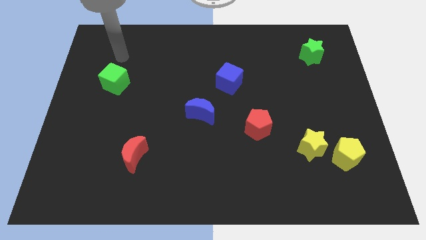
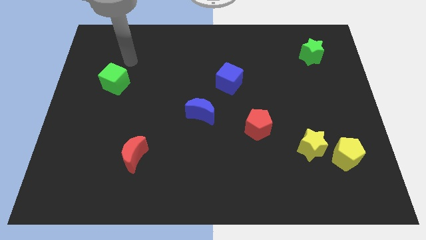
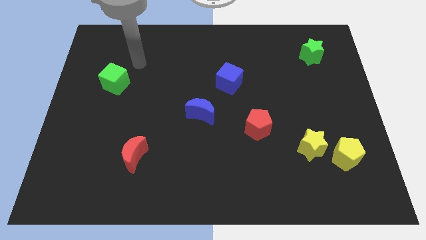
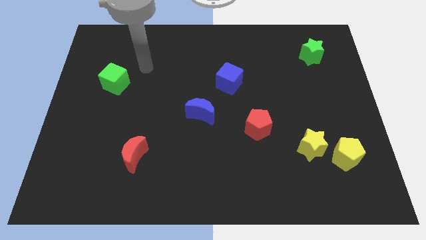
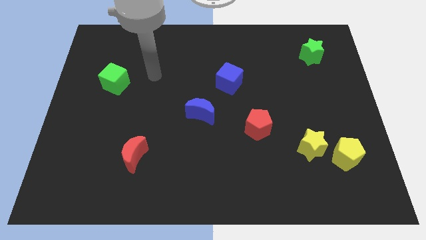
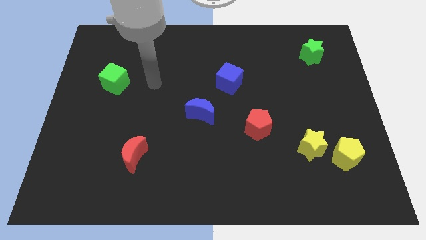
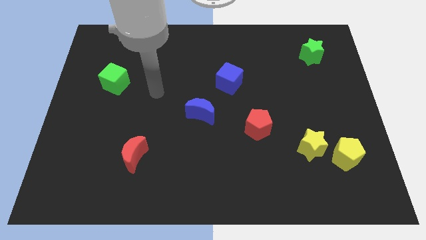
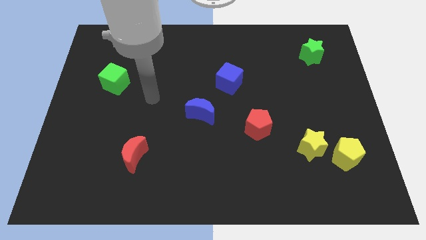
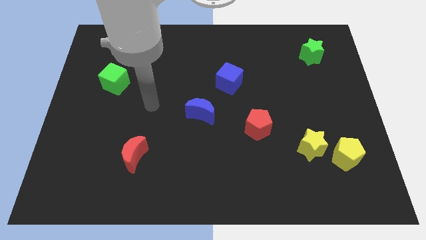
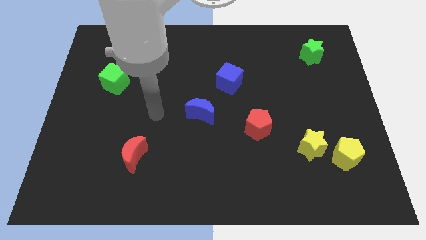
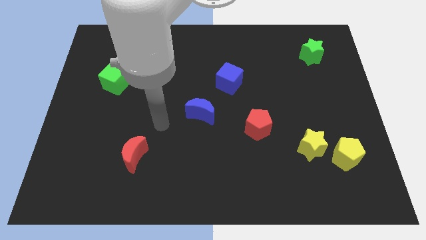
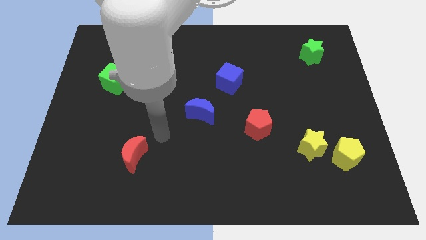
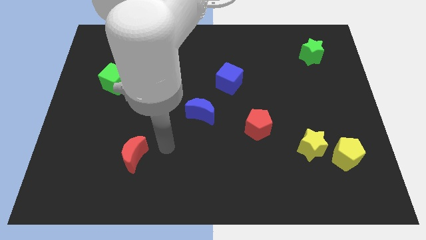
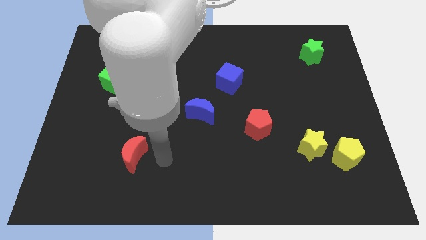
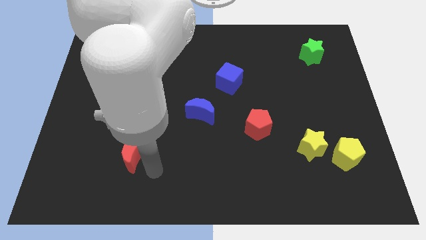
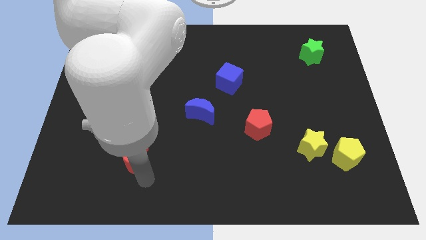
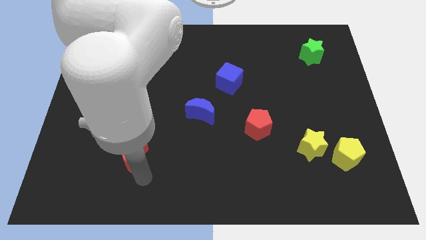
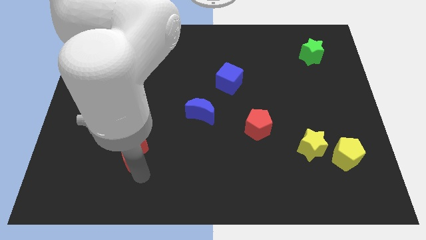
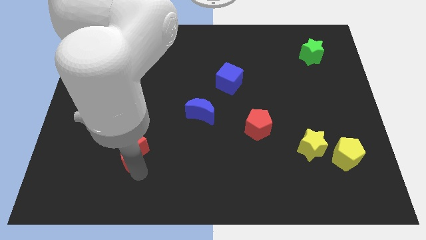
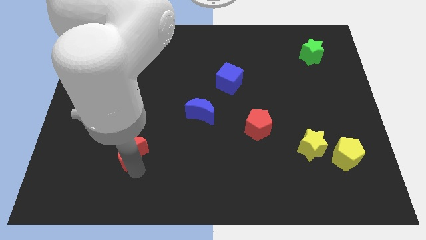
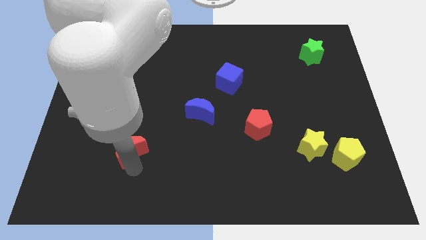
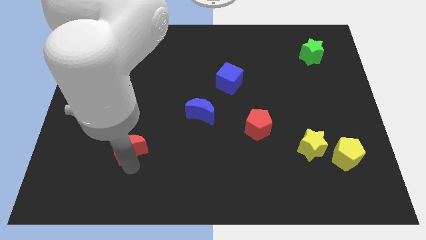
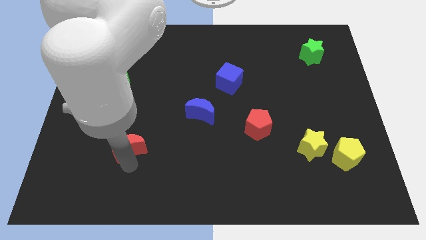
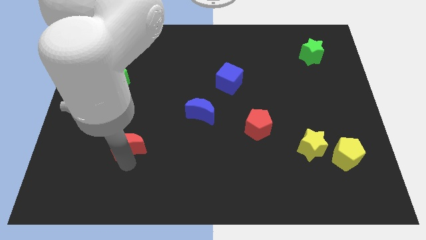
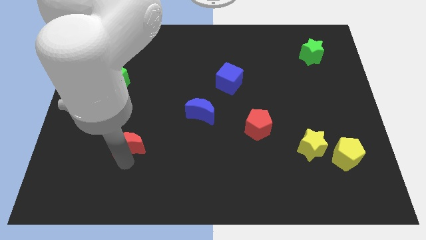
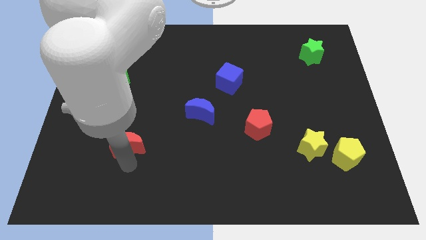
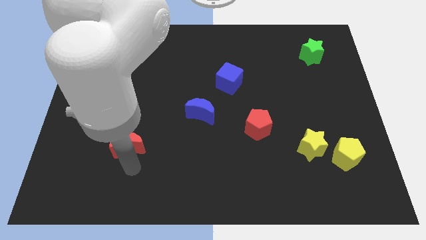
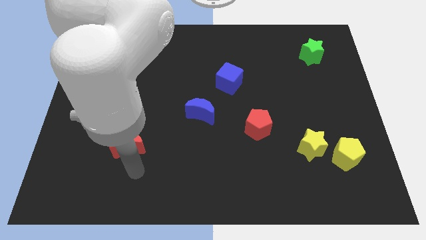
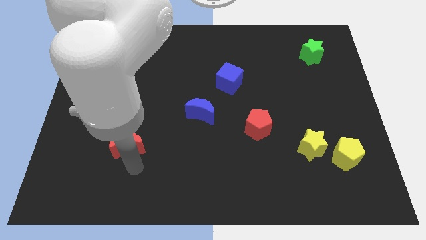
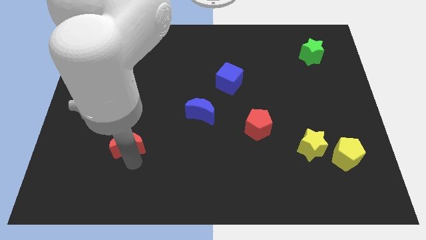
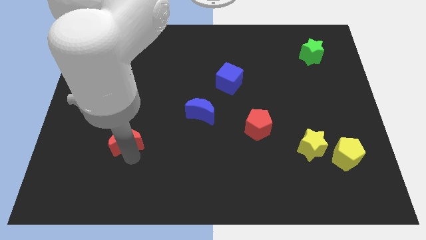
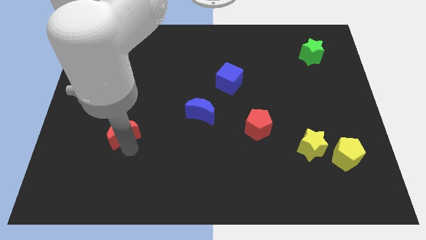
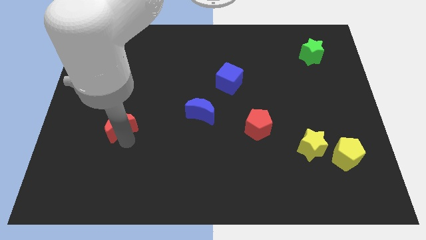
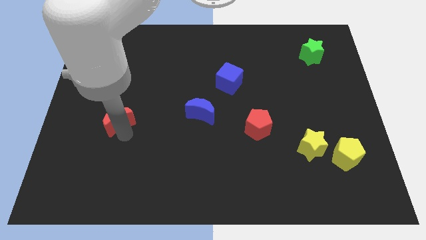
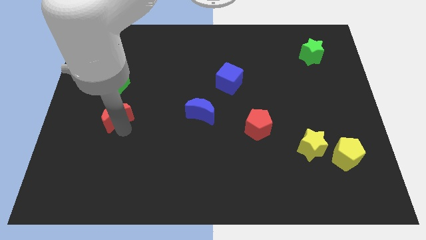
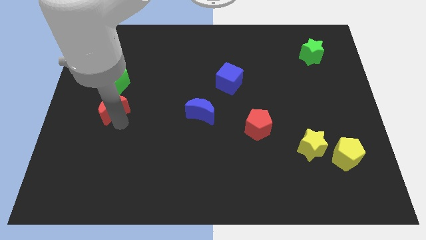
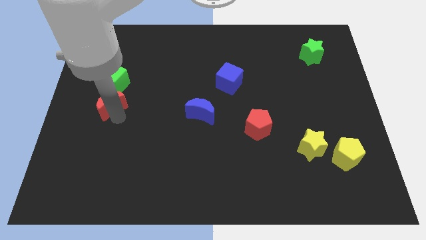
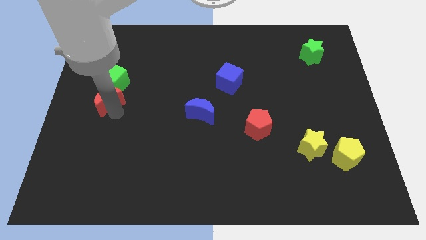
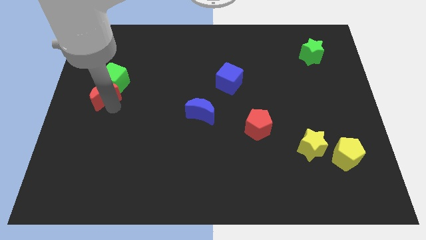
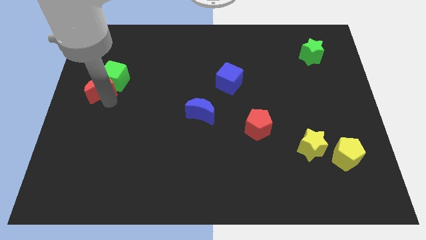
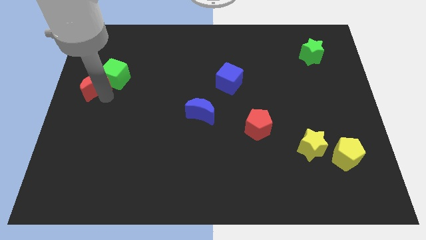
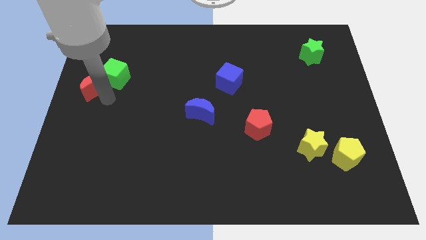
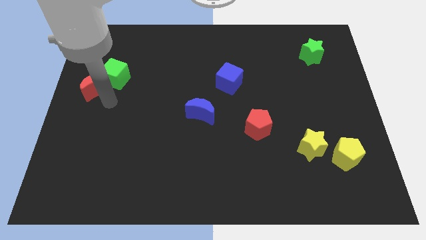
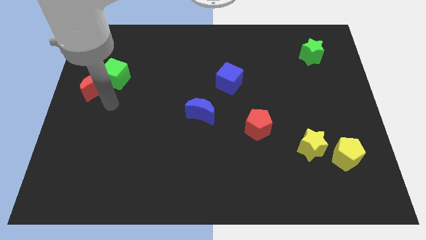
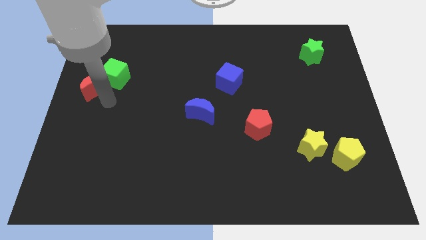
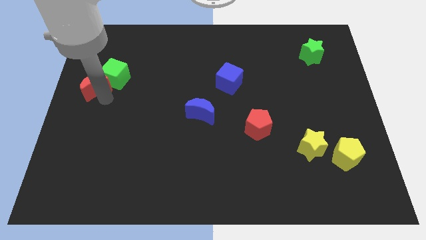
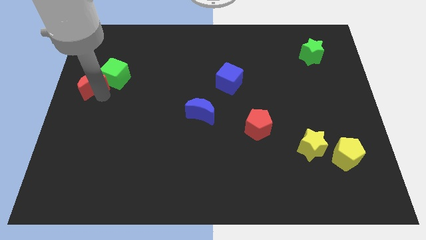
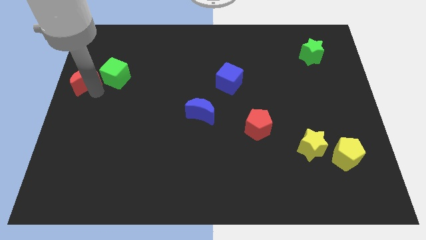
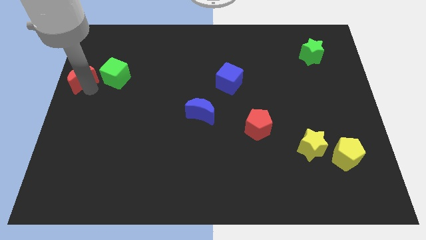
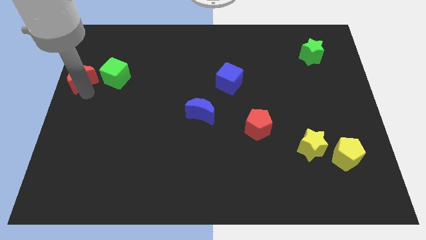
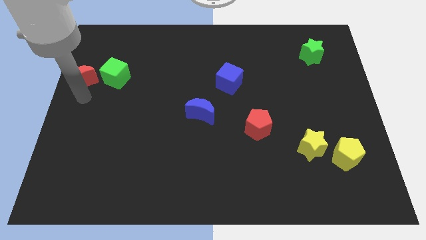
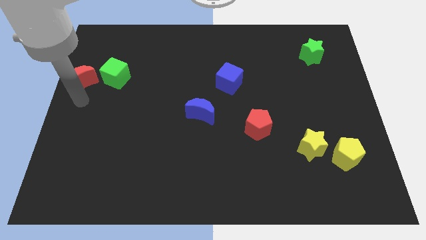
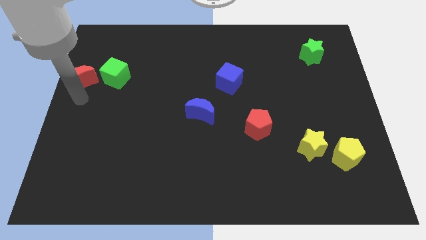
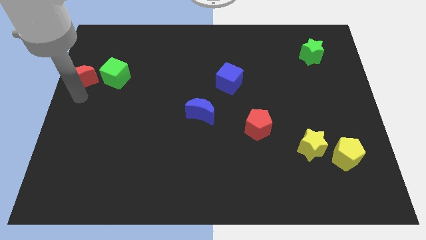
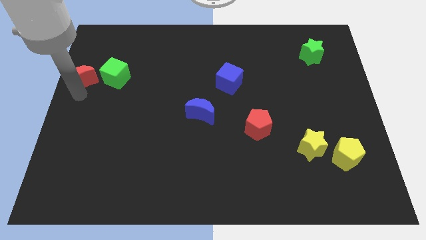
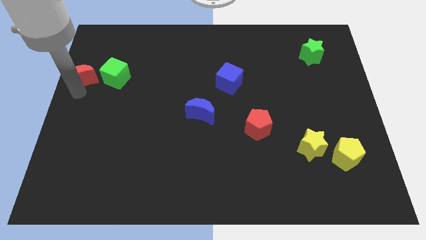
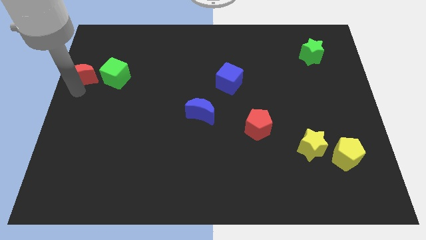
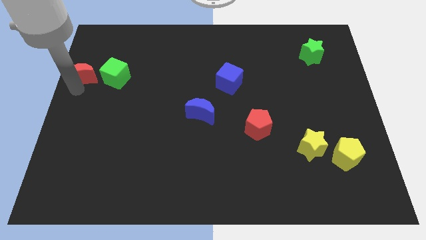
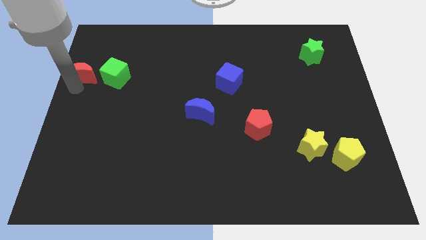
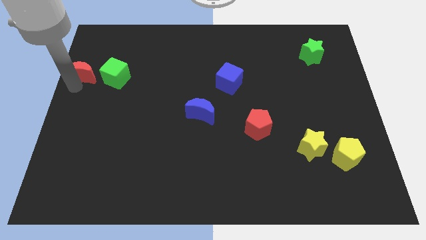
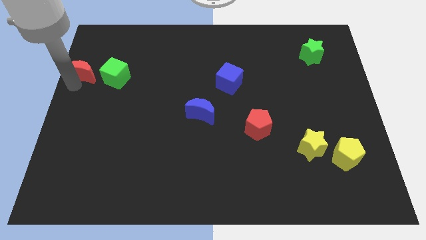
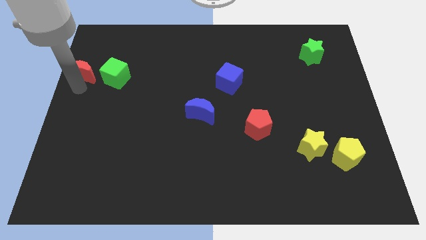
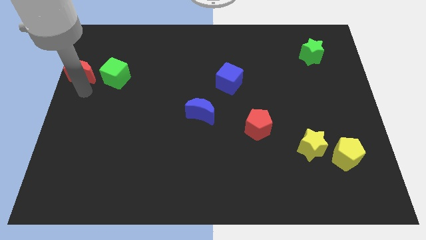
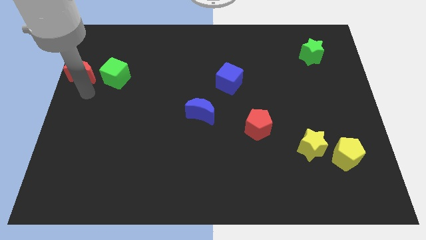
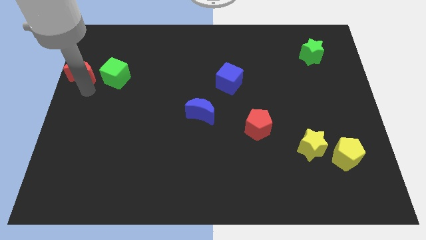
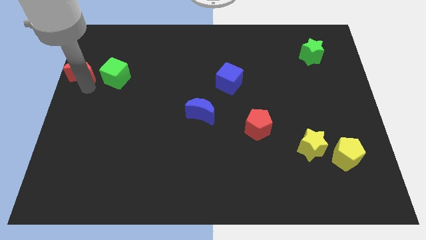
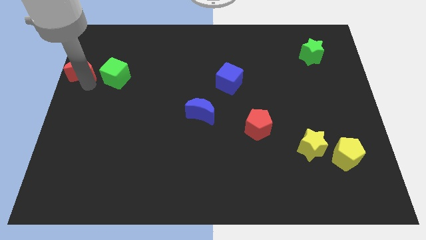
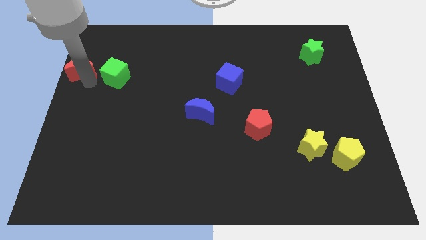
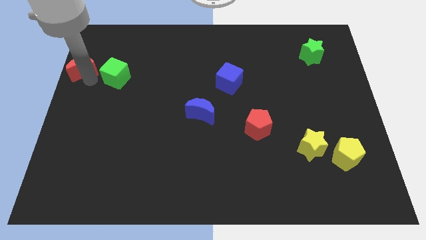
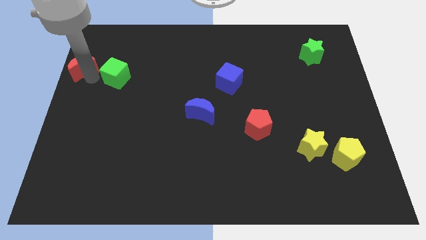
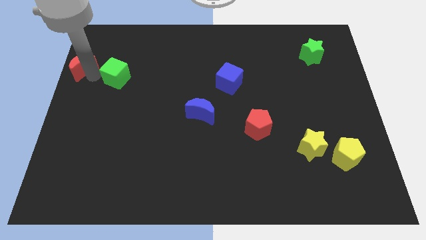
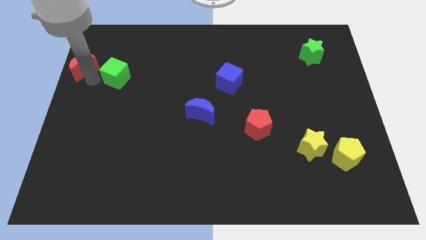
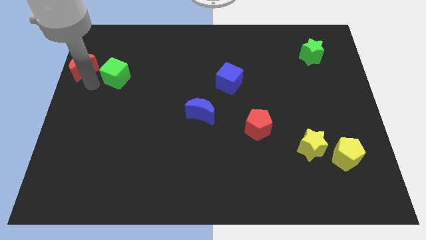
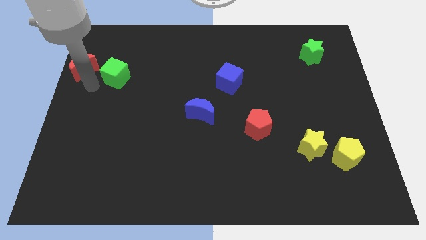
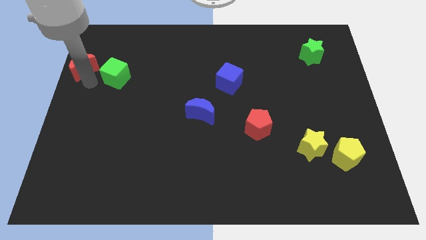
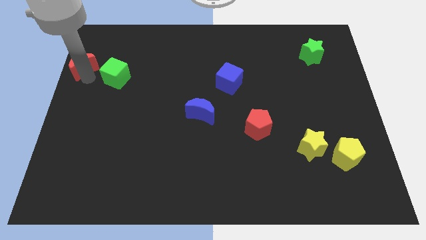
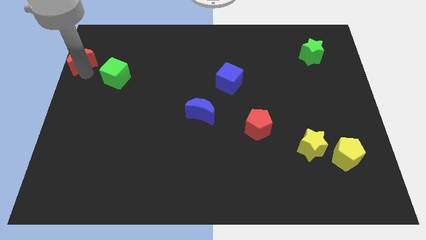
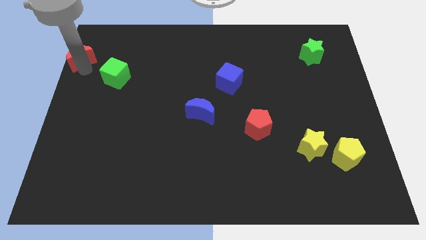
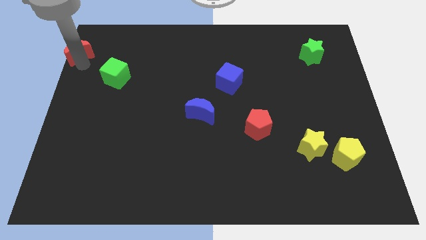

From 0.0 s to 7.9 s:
slide the red moon to the top left
